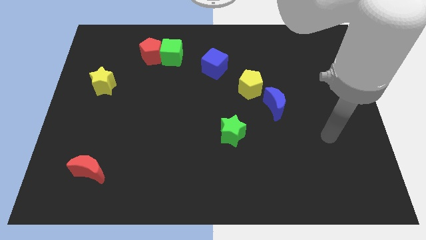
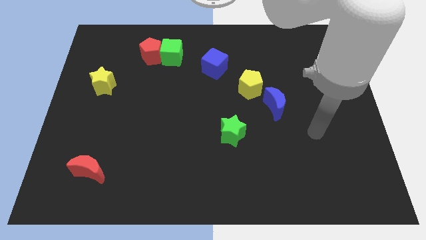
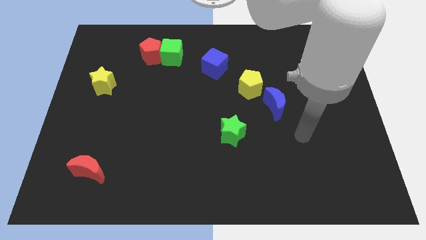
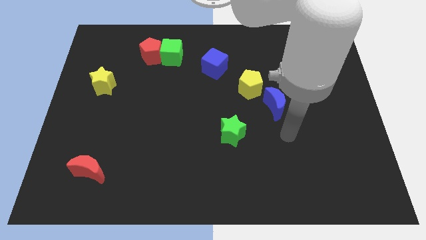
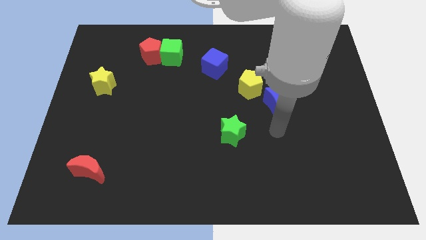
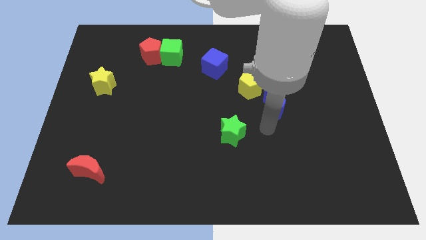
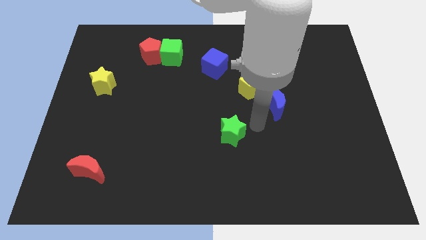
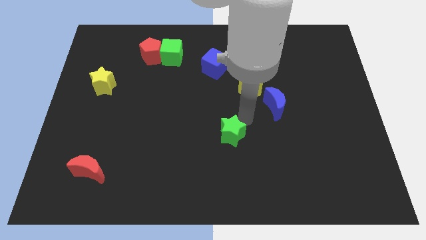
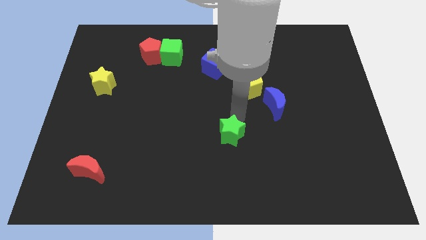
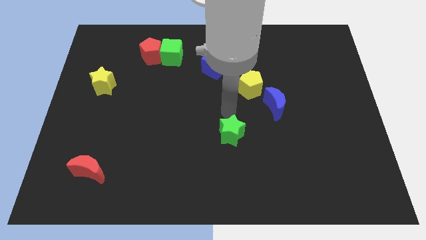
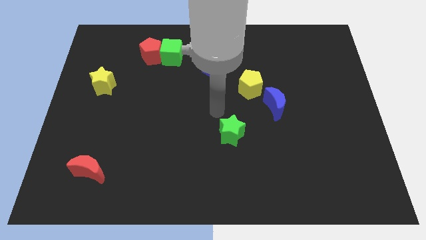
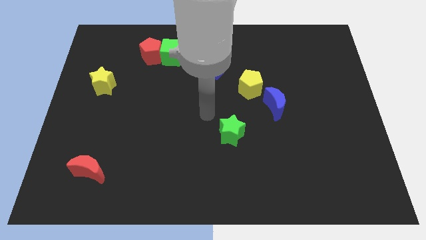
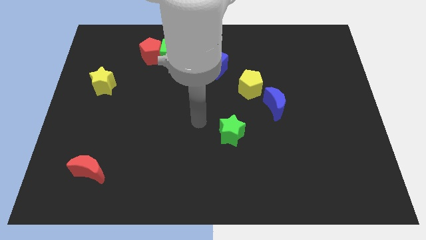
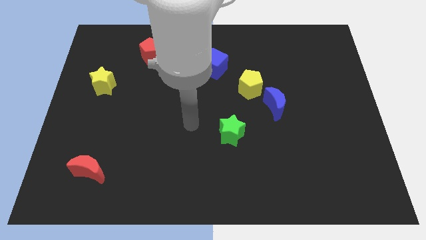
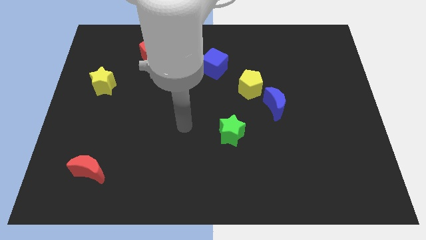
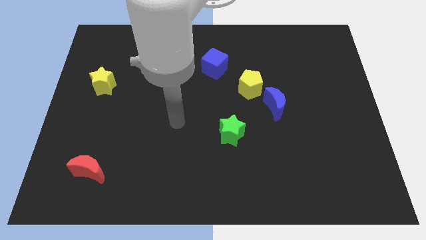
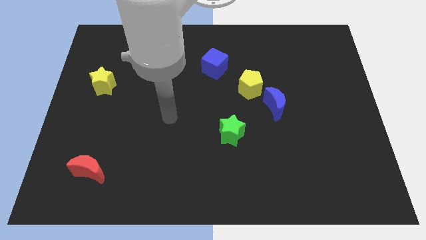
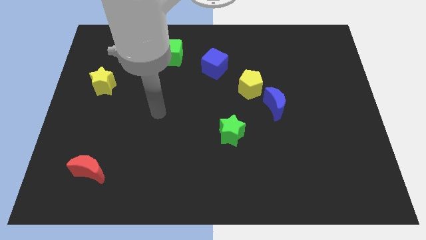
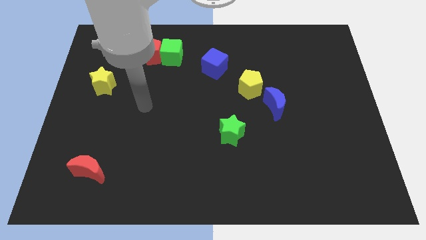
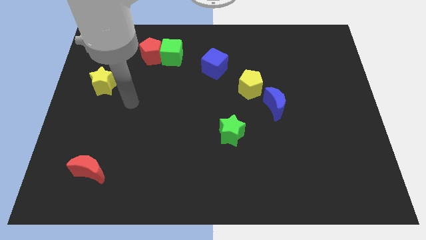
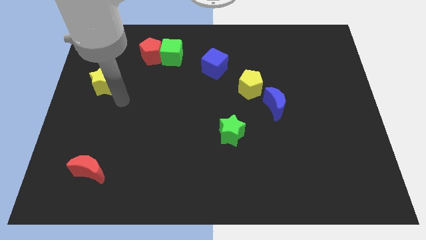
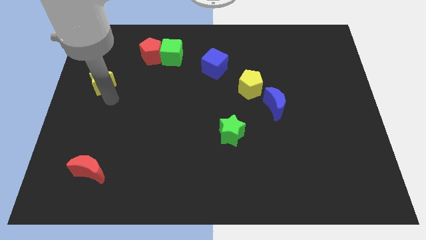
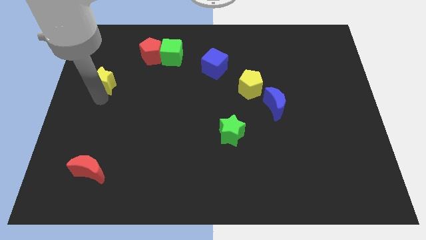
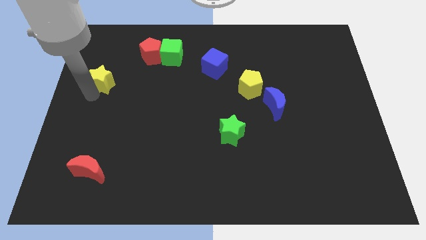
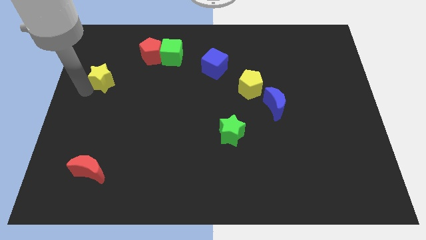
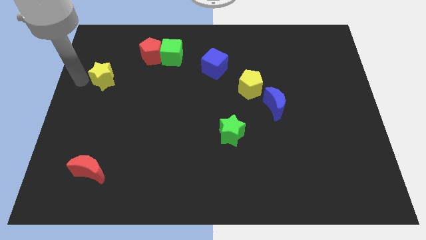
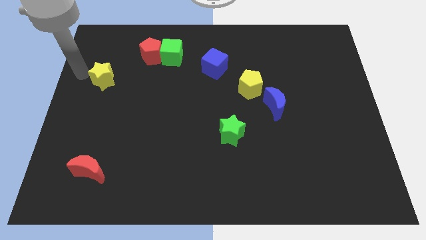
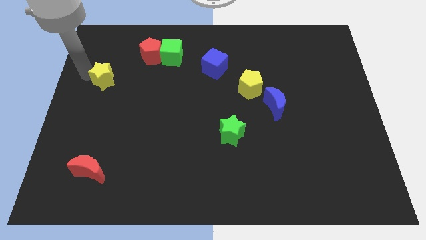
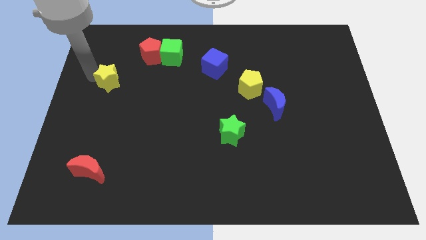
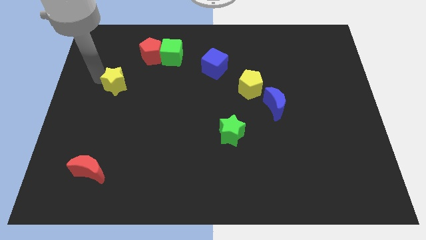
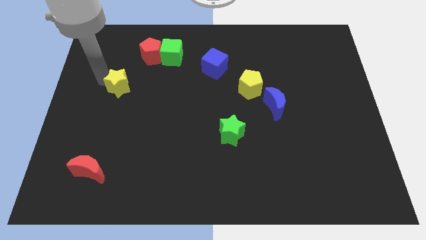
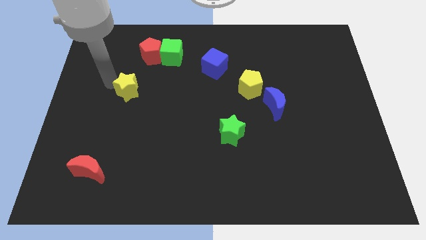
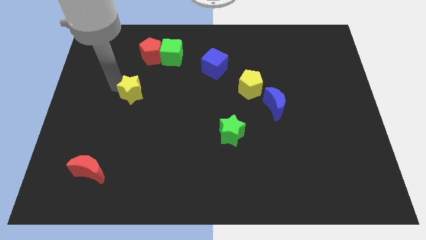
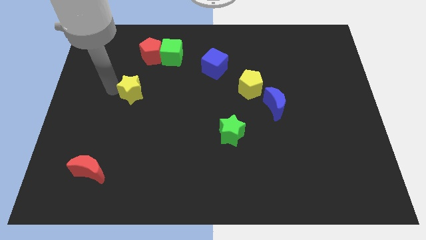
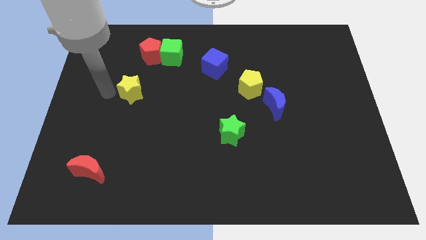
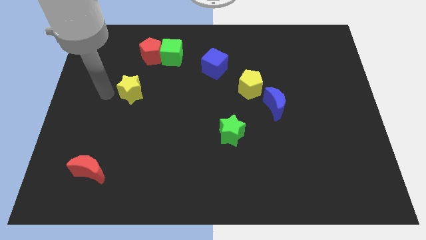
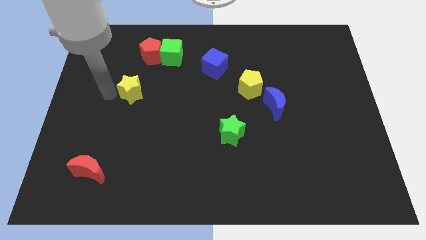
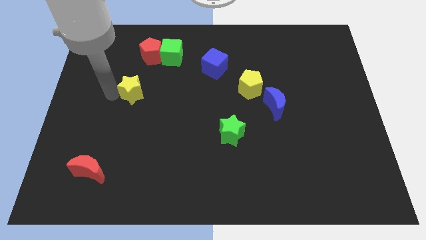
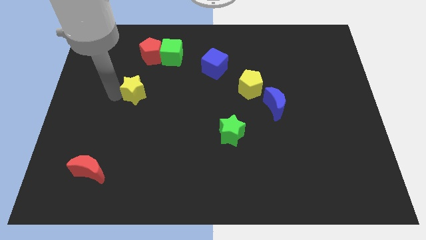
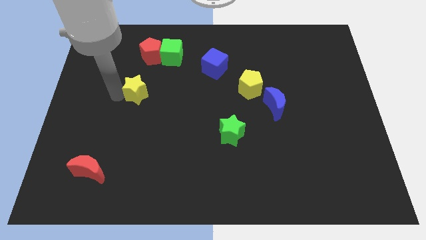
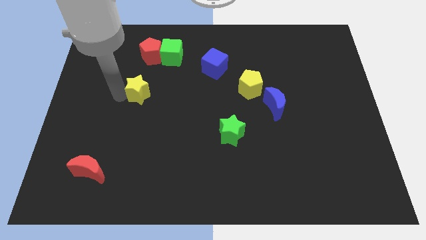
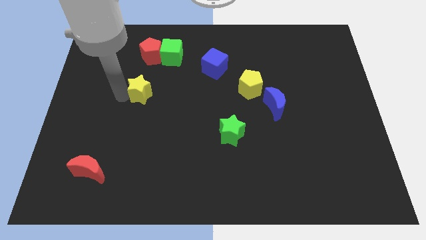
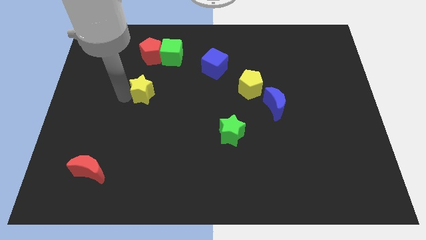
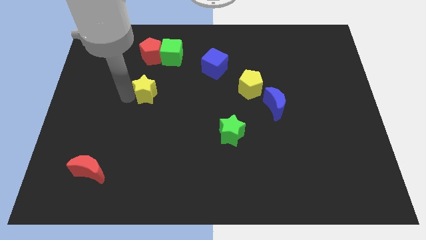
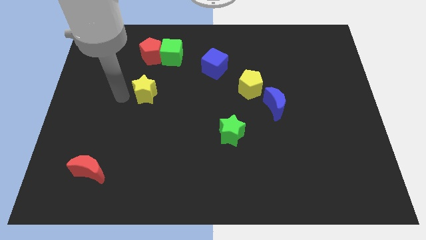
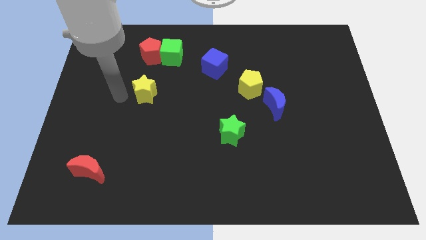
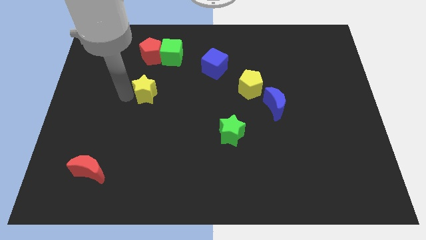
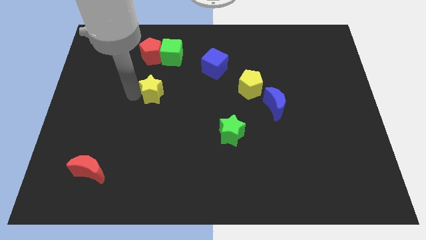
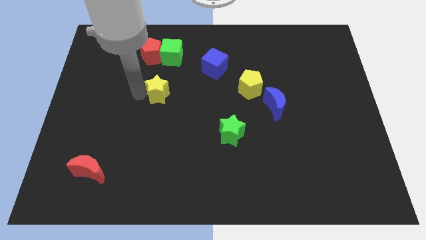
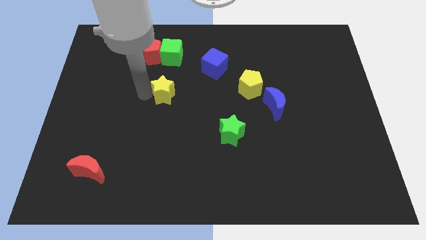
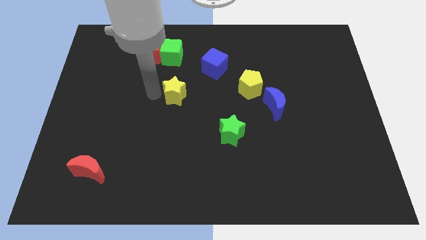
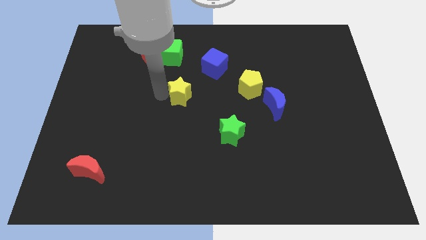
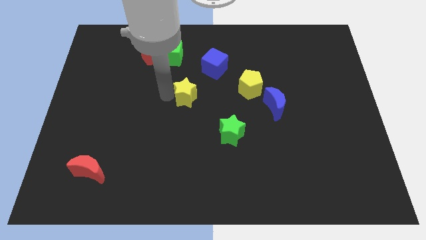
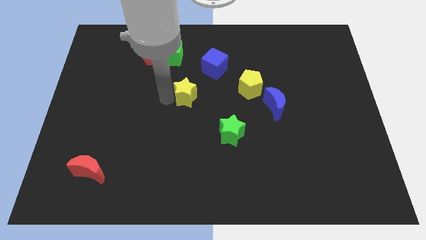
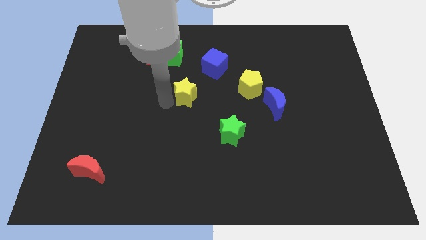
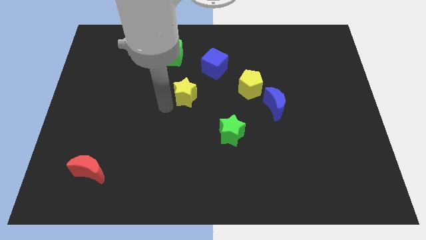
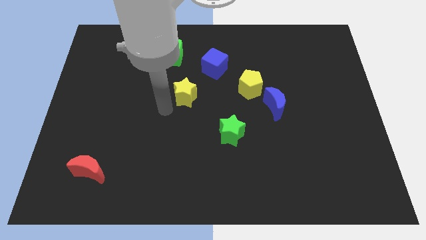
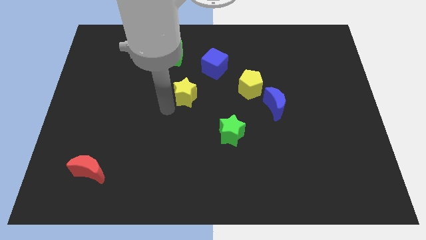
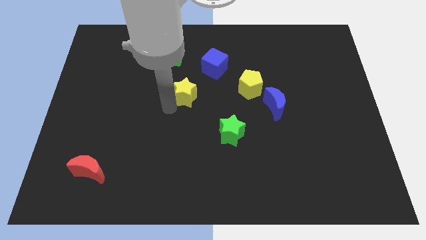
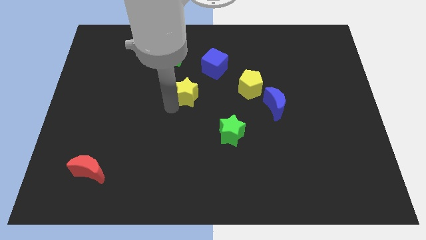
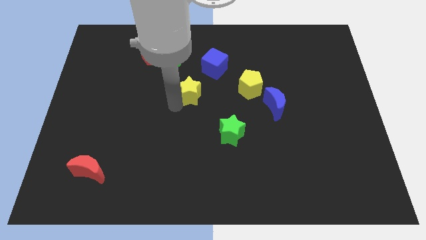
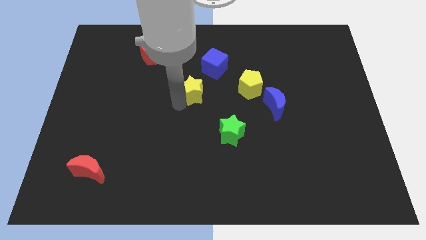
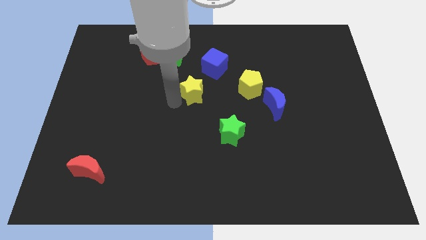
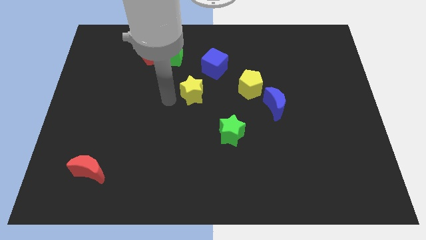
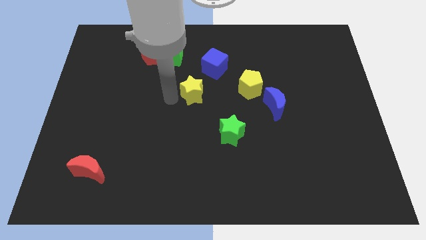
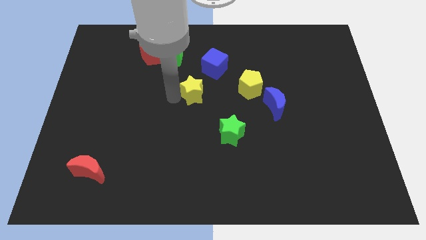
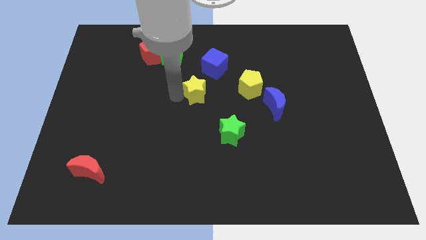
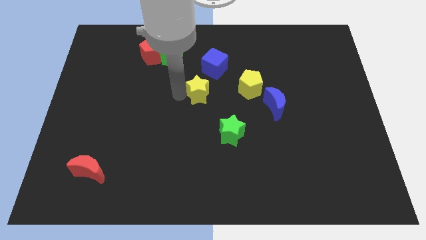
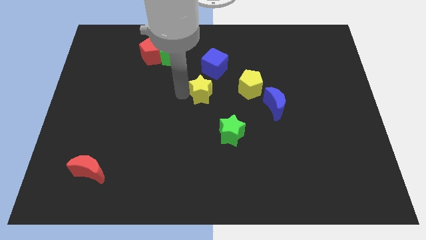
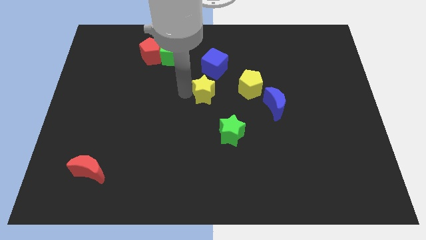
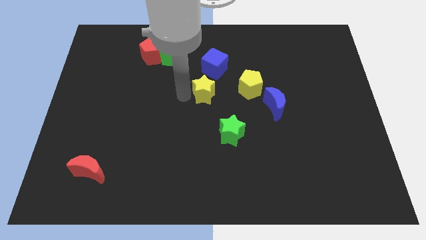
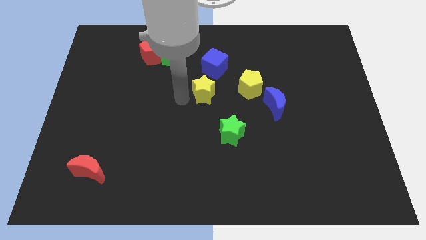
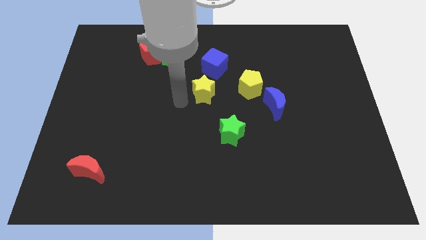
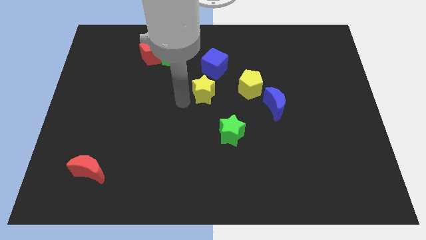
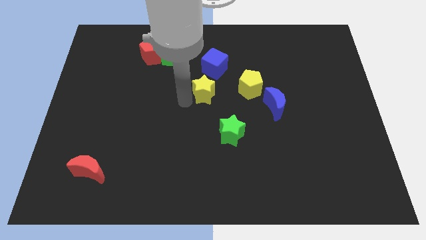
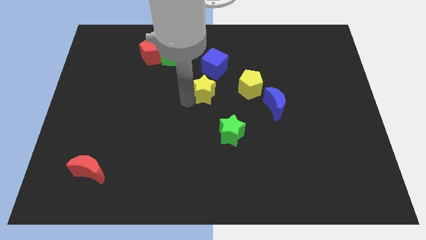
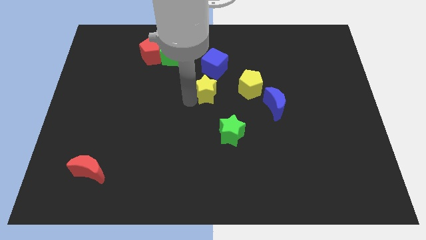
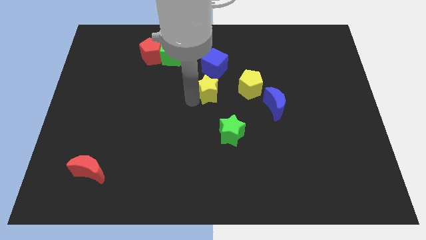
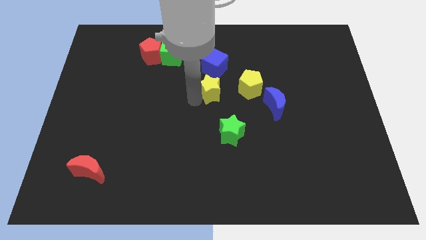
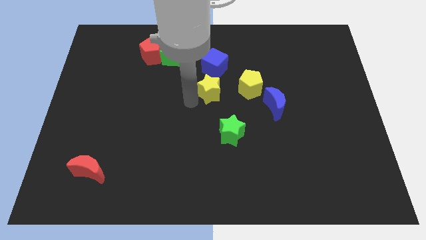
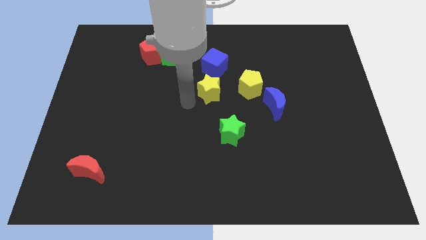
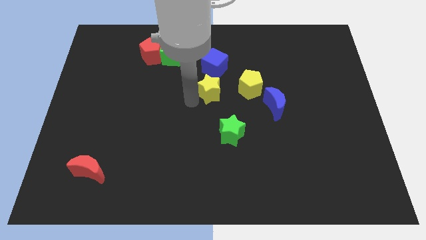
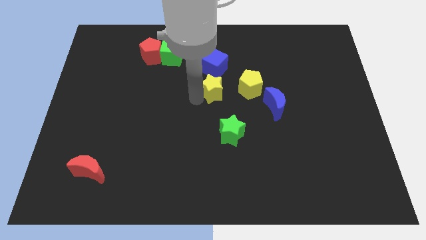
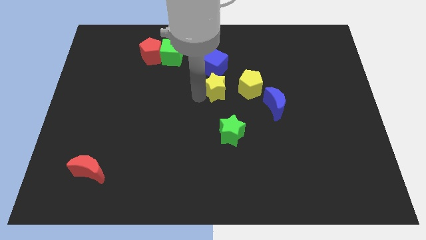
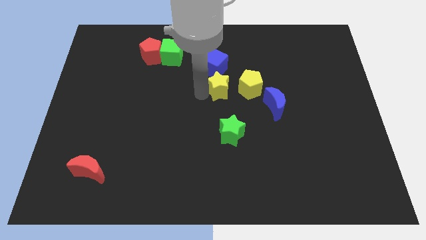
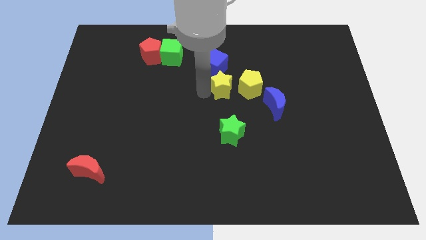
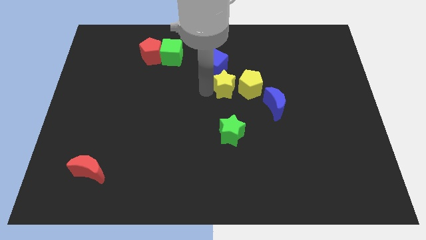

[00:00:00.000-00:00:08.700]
slide the yellow star close to the yellow pentagon
